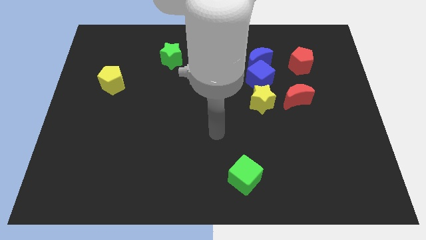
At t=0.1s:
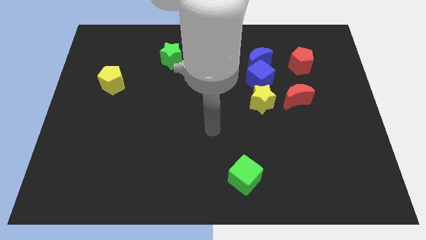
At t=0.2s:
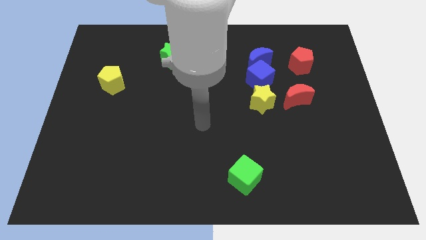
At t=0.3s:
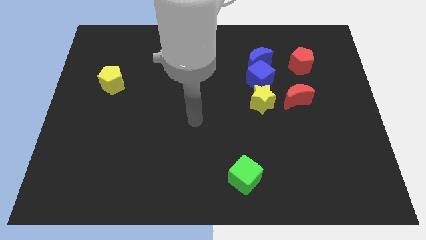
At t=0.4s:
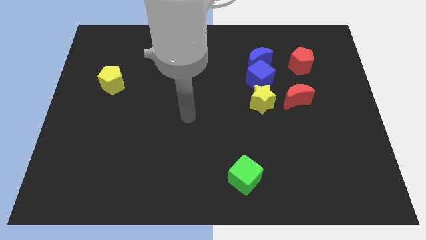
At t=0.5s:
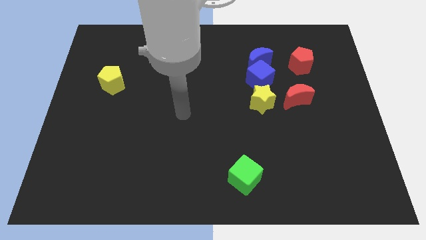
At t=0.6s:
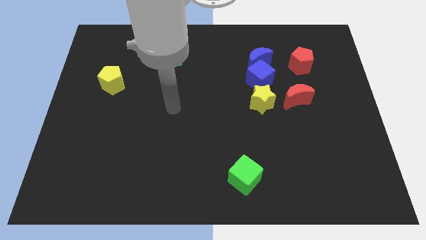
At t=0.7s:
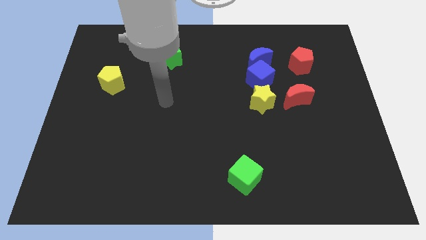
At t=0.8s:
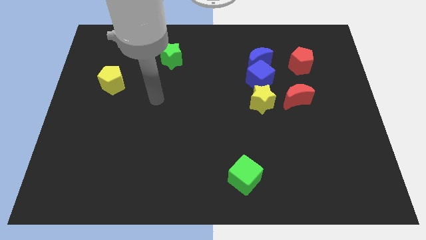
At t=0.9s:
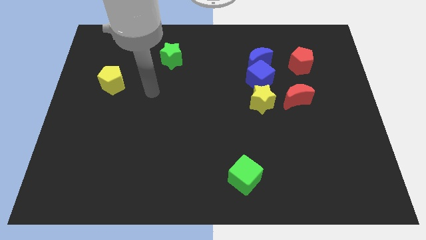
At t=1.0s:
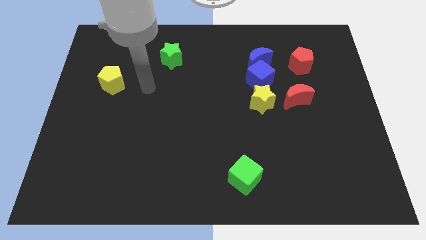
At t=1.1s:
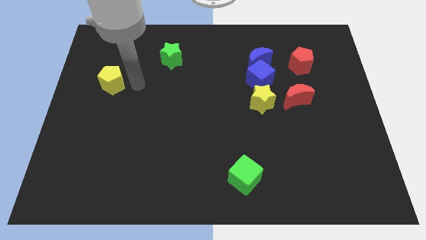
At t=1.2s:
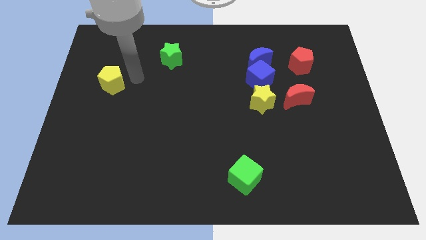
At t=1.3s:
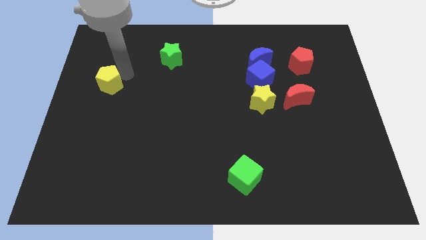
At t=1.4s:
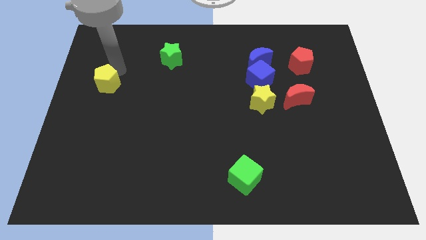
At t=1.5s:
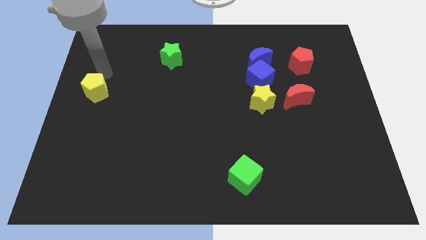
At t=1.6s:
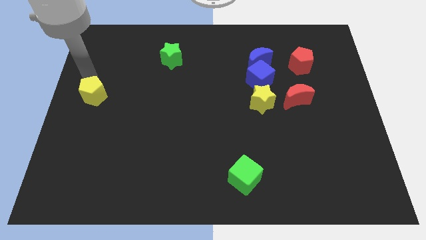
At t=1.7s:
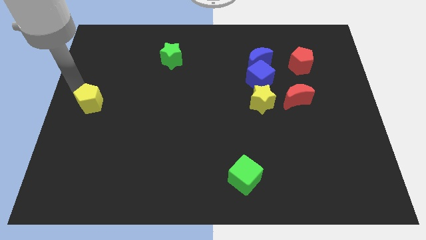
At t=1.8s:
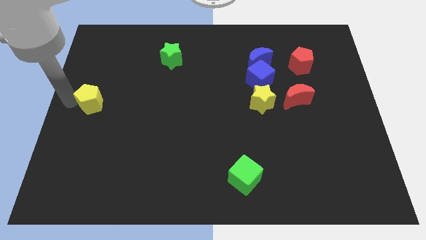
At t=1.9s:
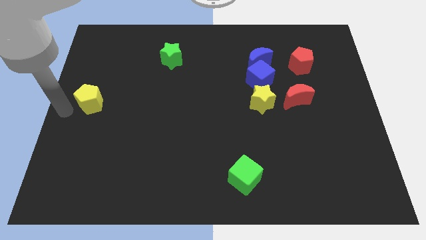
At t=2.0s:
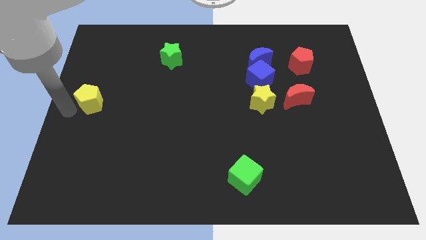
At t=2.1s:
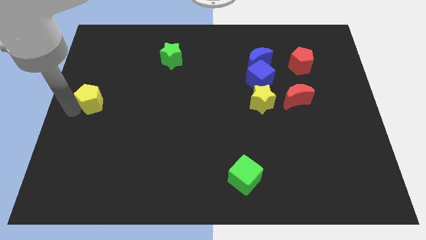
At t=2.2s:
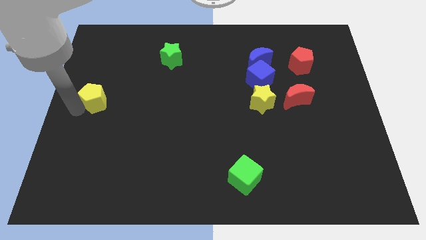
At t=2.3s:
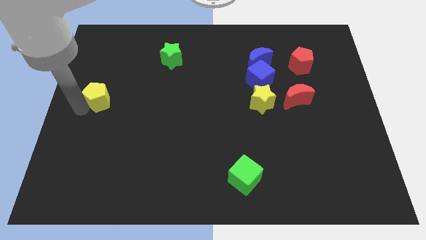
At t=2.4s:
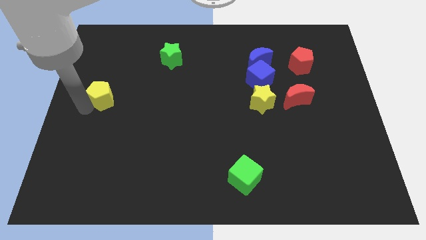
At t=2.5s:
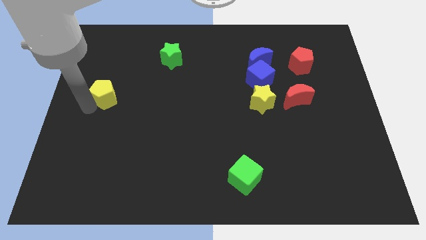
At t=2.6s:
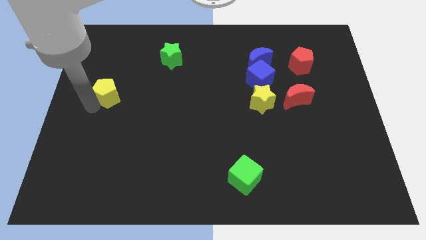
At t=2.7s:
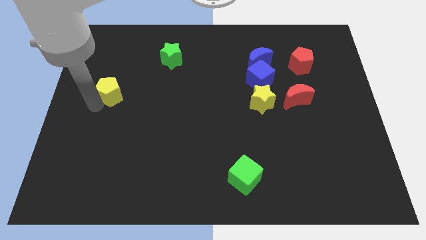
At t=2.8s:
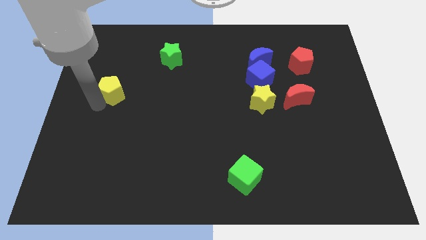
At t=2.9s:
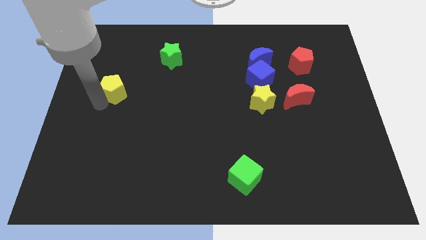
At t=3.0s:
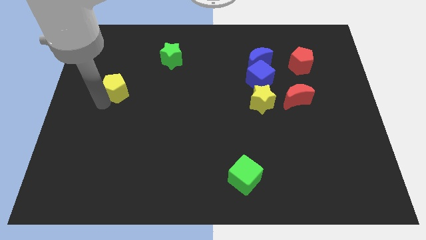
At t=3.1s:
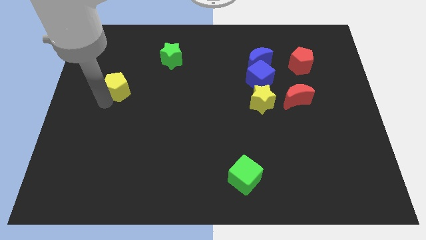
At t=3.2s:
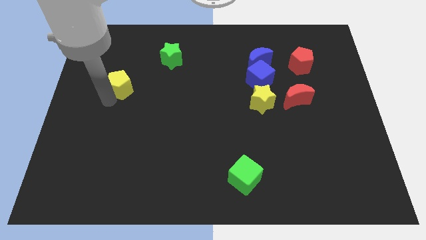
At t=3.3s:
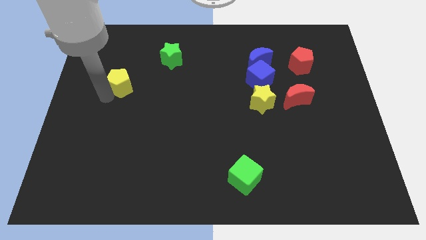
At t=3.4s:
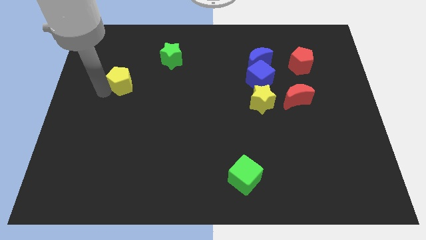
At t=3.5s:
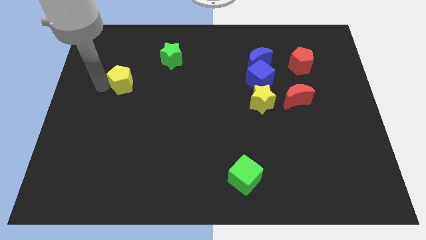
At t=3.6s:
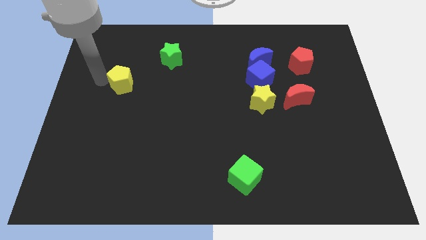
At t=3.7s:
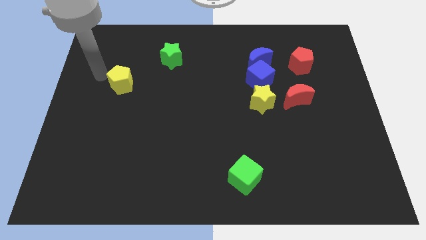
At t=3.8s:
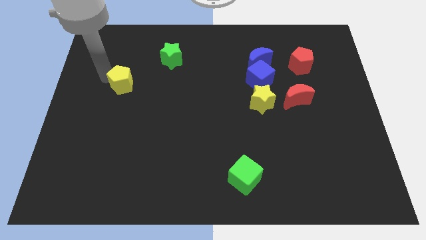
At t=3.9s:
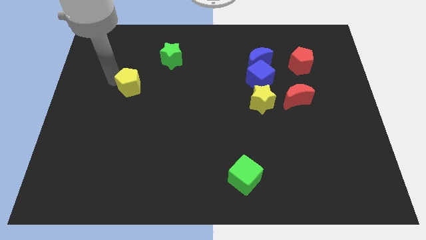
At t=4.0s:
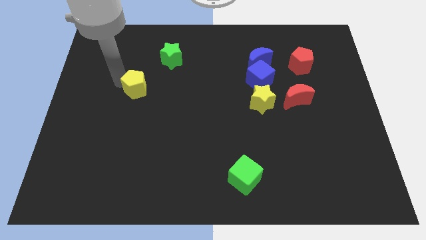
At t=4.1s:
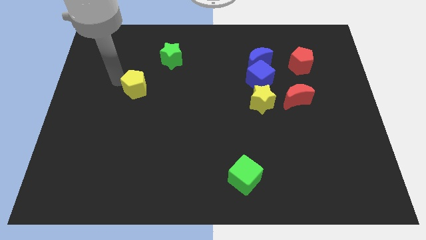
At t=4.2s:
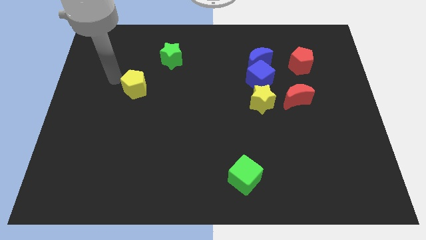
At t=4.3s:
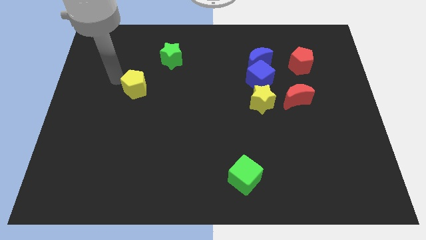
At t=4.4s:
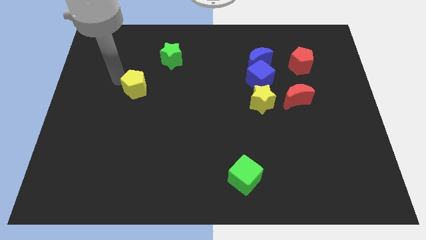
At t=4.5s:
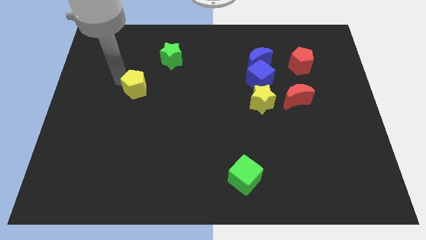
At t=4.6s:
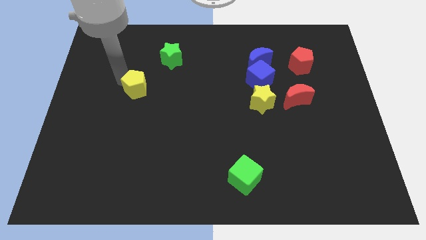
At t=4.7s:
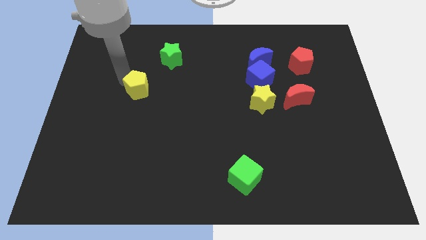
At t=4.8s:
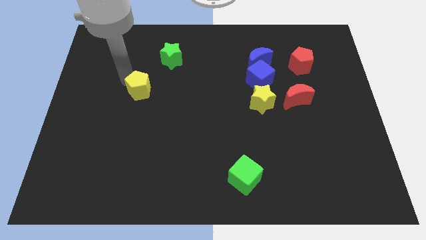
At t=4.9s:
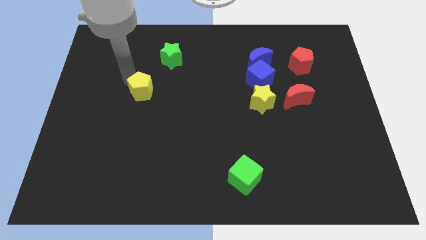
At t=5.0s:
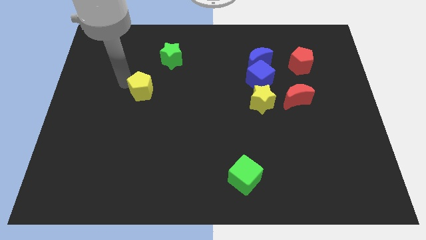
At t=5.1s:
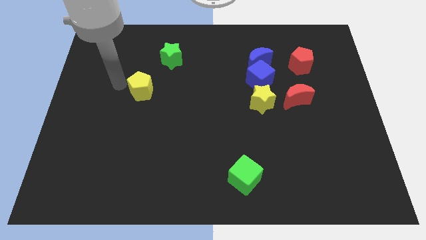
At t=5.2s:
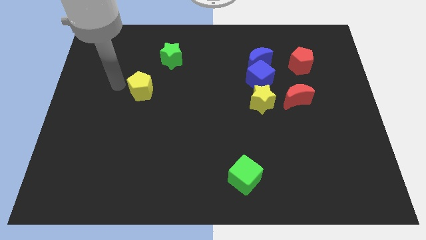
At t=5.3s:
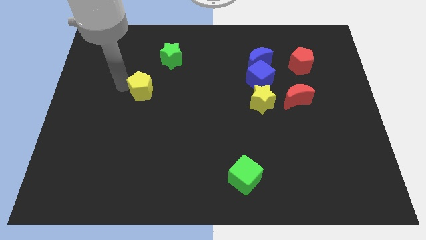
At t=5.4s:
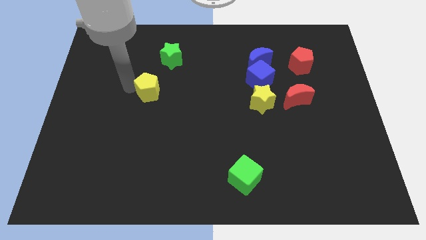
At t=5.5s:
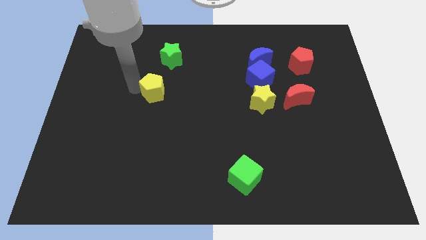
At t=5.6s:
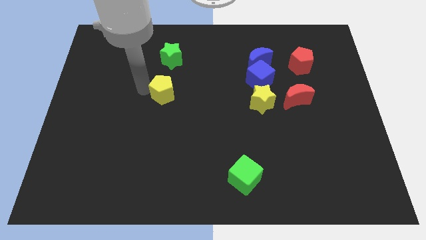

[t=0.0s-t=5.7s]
slide the yellow pentagon to the middle

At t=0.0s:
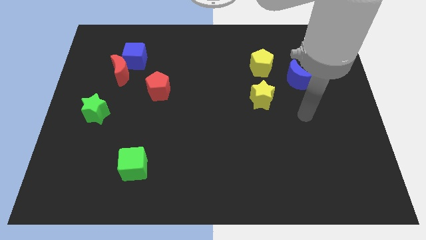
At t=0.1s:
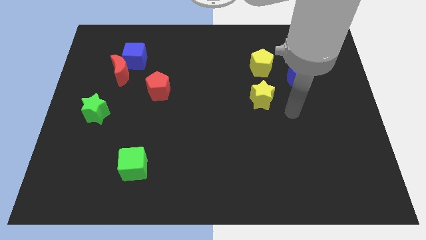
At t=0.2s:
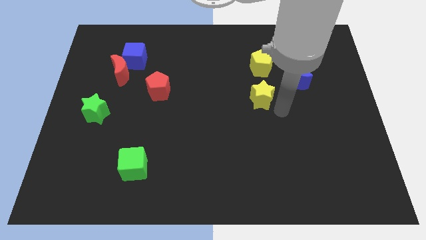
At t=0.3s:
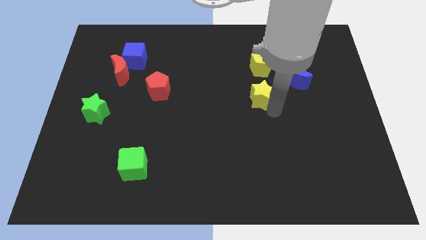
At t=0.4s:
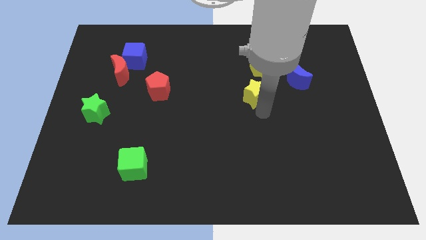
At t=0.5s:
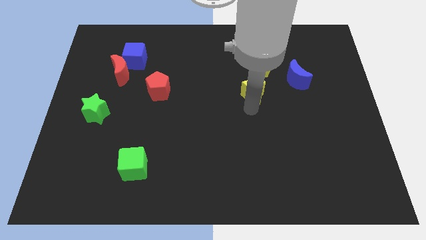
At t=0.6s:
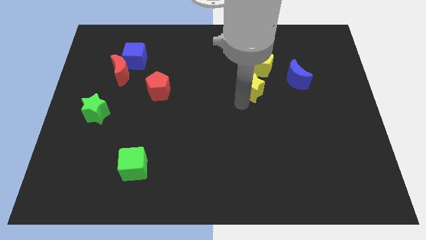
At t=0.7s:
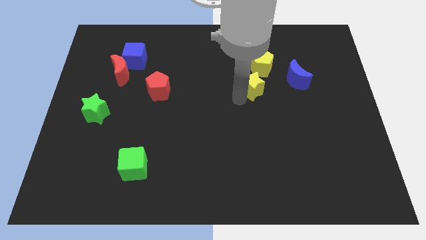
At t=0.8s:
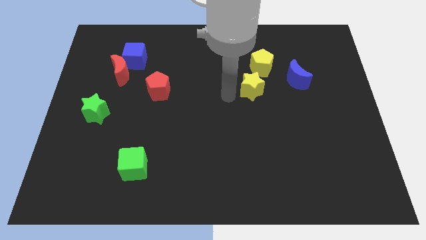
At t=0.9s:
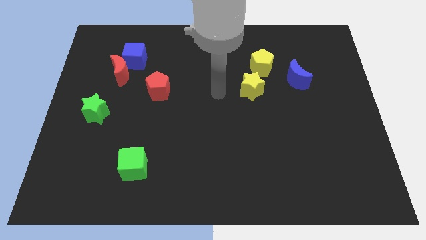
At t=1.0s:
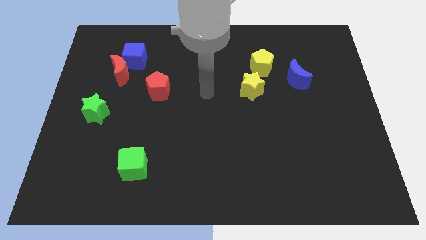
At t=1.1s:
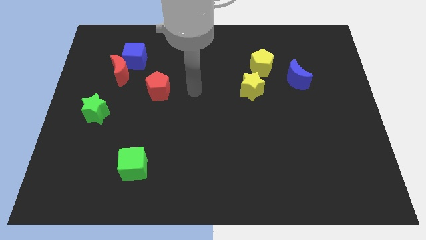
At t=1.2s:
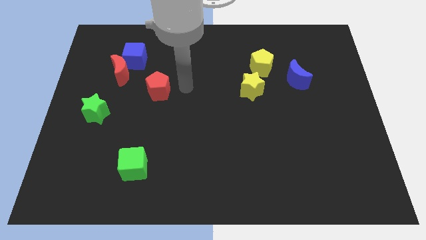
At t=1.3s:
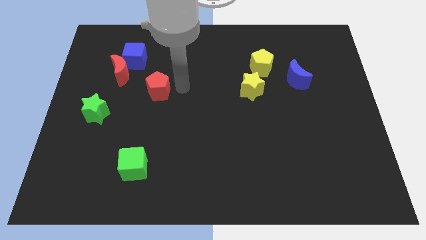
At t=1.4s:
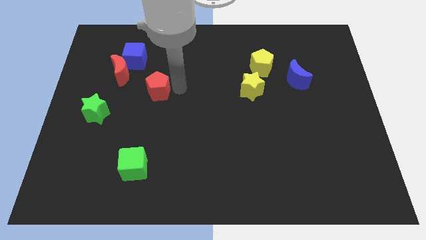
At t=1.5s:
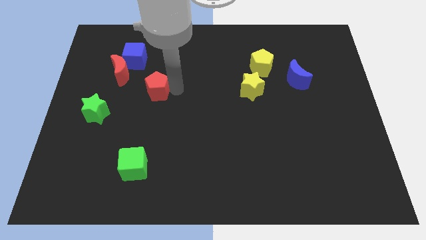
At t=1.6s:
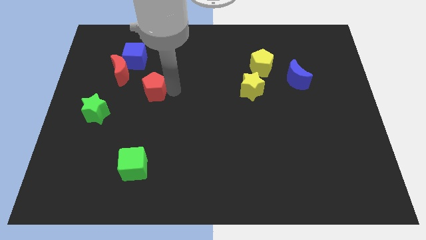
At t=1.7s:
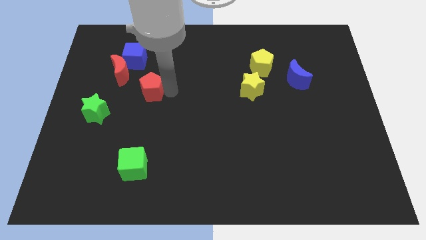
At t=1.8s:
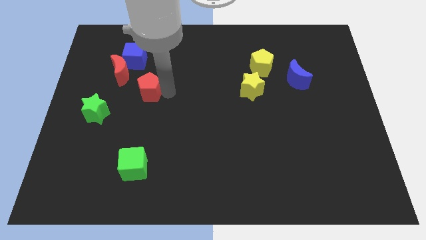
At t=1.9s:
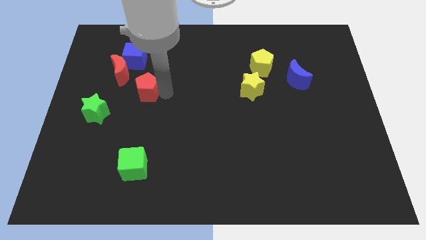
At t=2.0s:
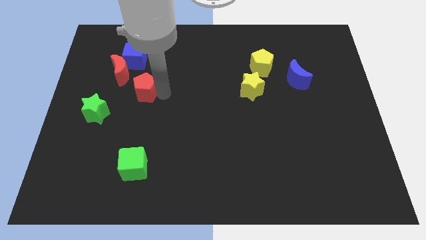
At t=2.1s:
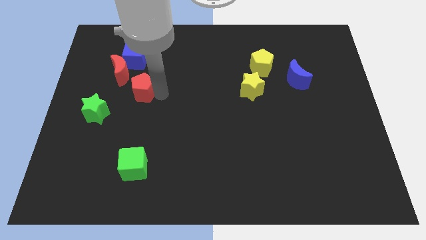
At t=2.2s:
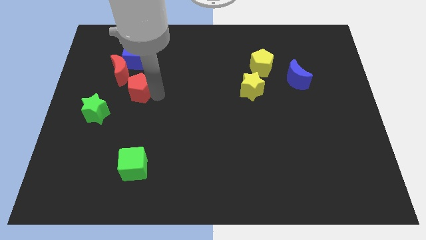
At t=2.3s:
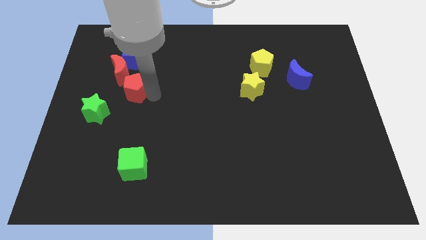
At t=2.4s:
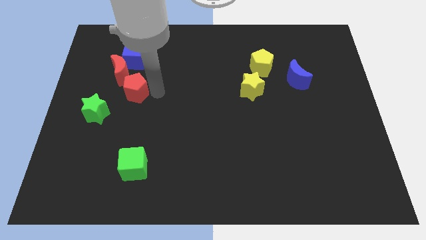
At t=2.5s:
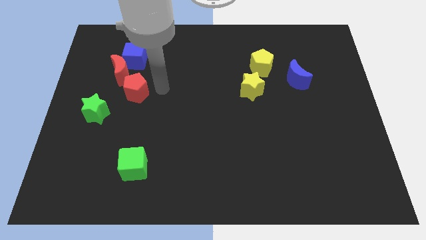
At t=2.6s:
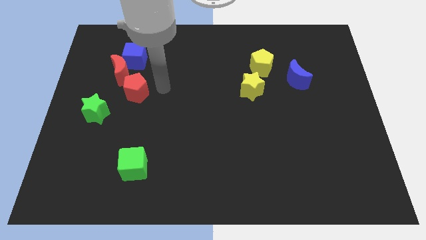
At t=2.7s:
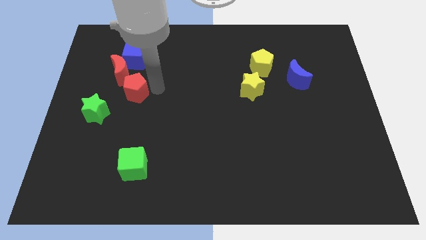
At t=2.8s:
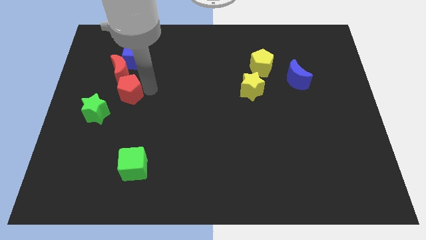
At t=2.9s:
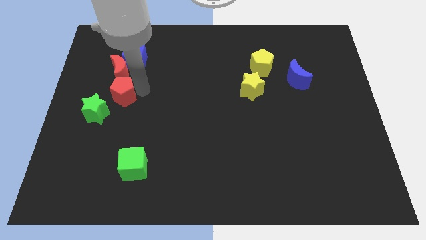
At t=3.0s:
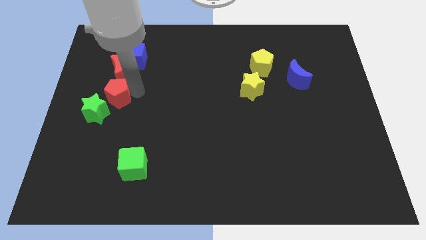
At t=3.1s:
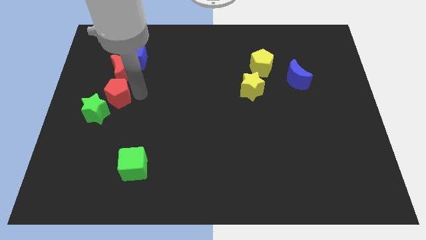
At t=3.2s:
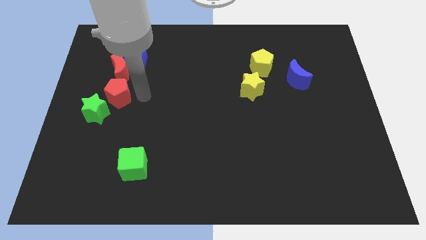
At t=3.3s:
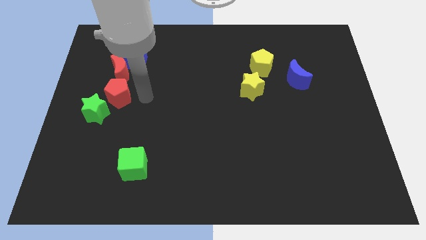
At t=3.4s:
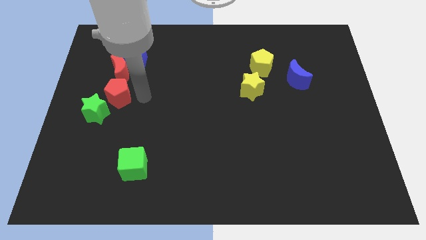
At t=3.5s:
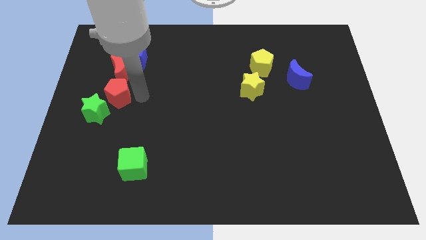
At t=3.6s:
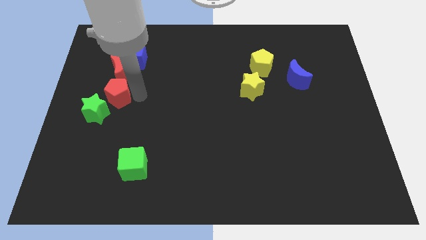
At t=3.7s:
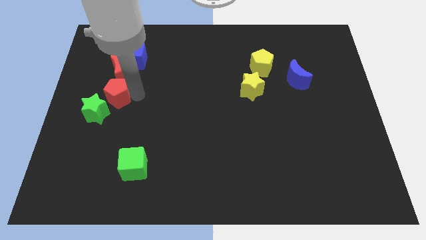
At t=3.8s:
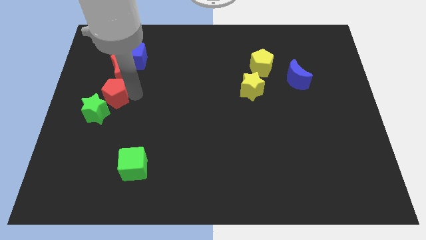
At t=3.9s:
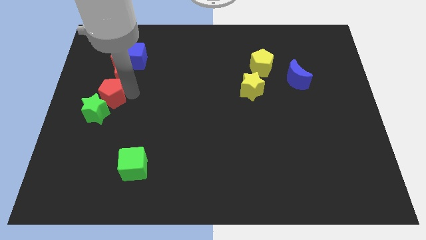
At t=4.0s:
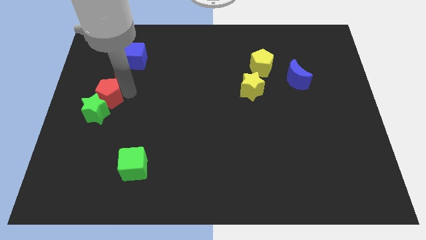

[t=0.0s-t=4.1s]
slide the red pentagon to the left side
